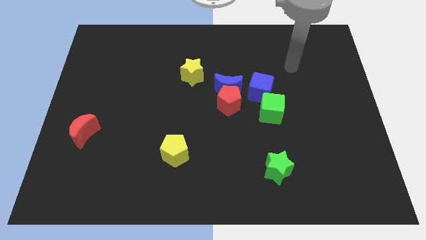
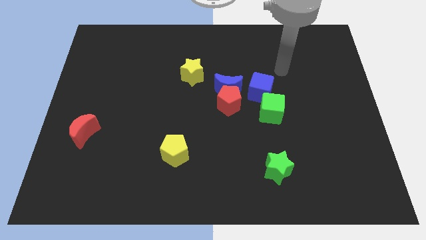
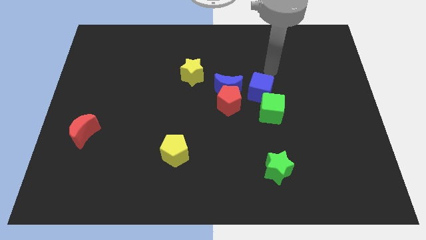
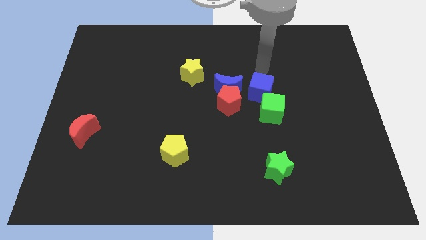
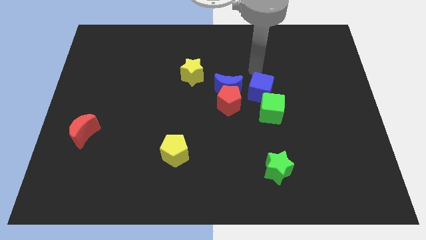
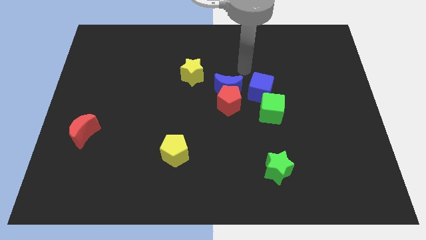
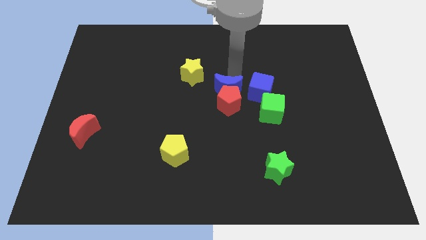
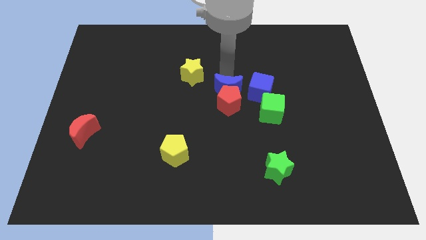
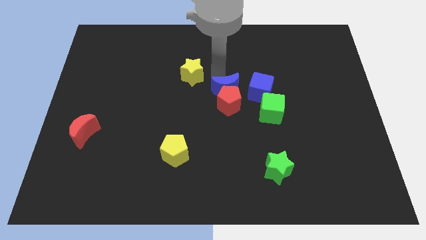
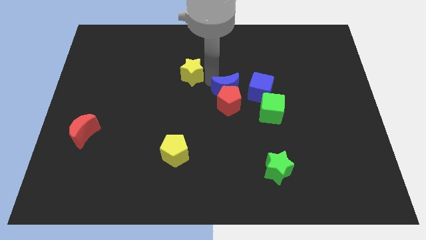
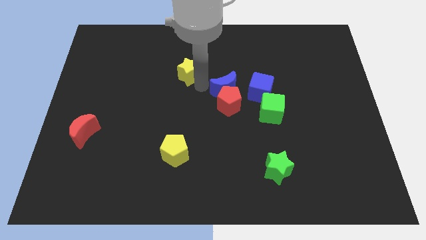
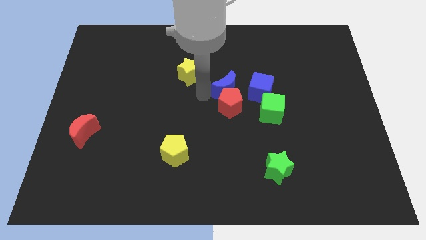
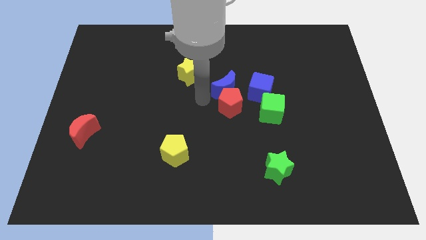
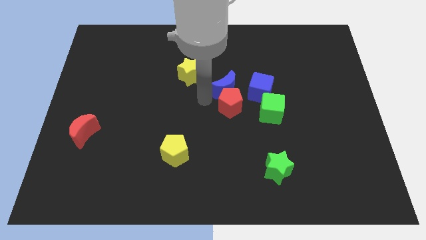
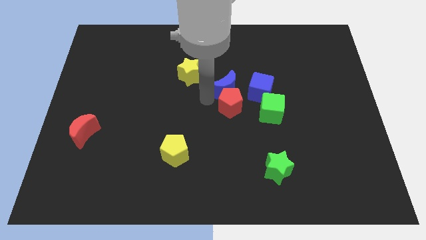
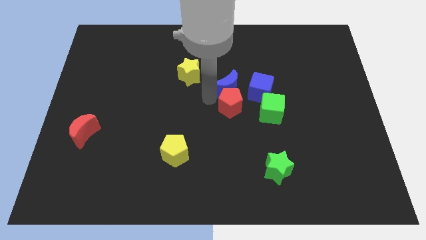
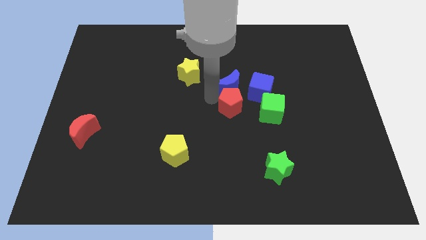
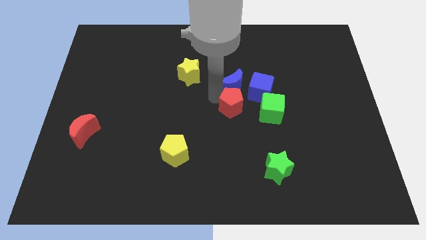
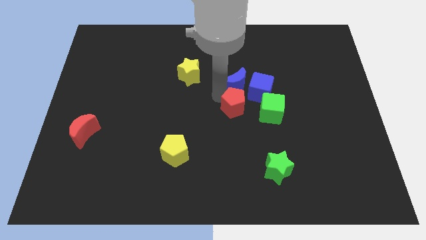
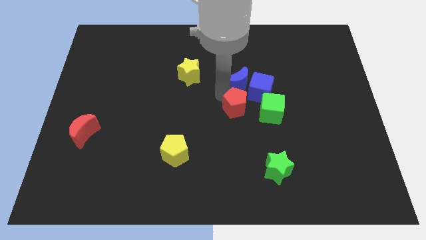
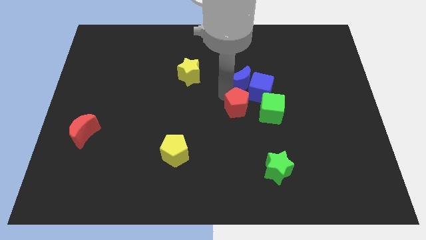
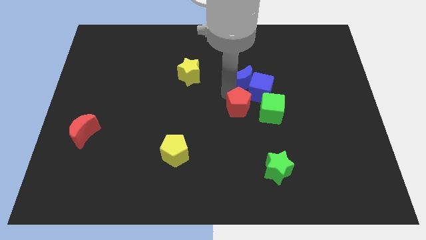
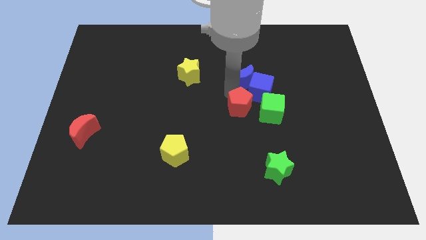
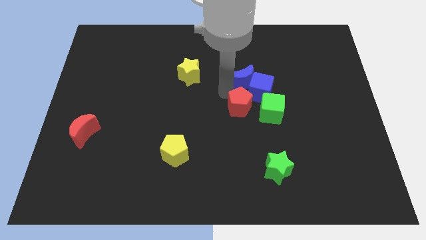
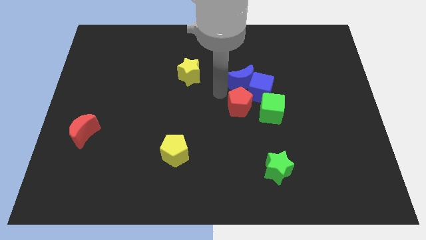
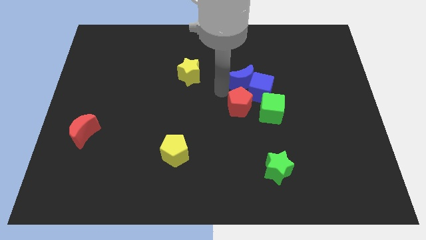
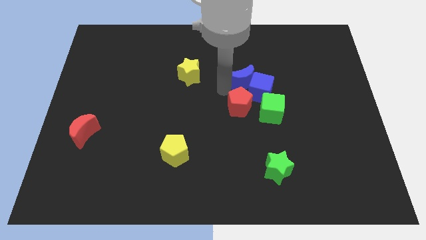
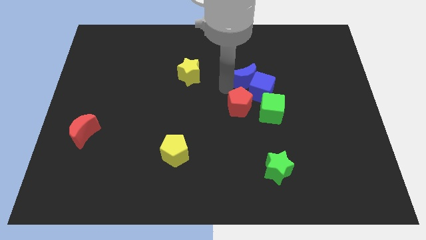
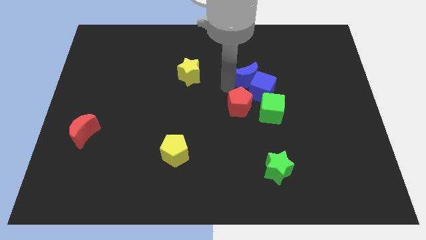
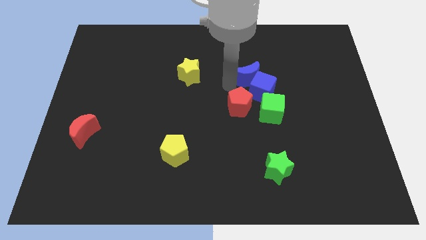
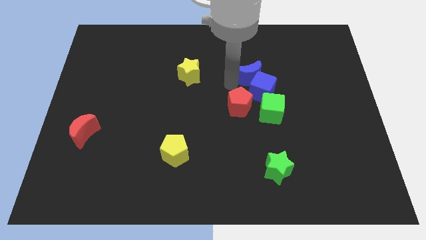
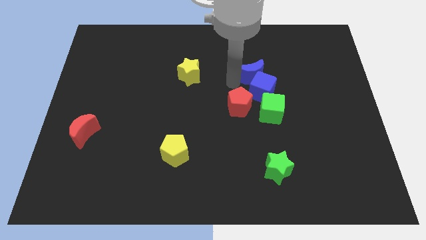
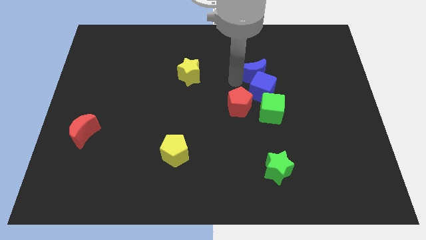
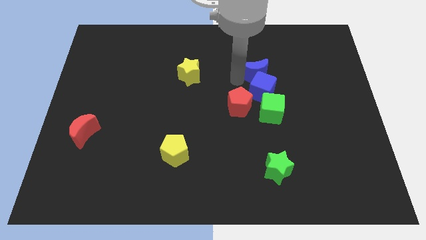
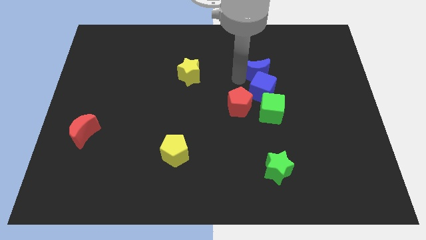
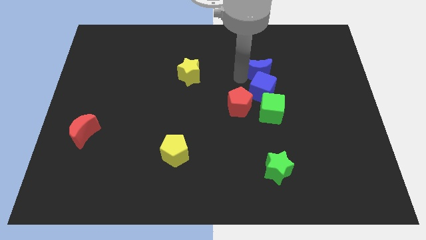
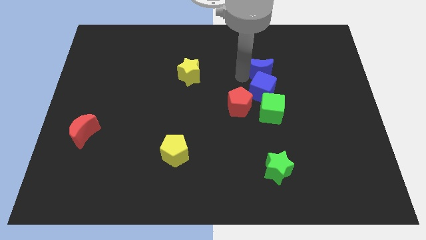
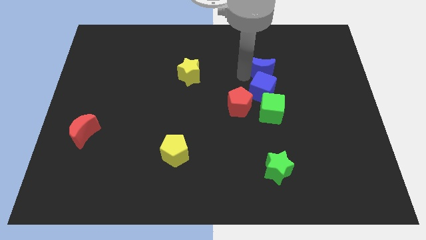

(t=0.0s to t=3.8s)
pull the blue moon apart from the clump

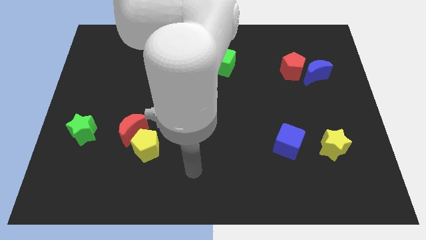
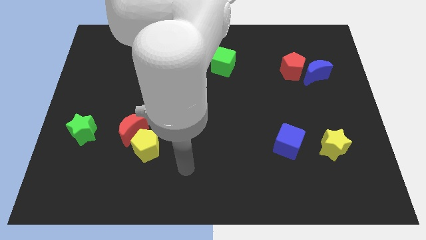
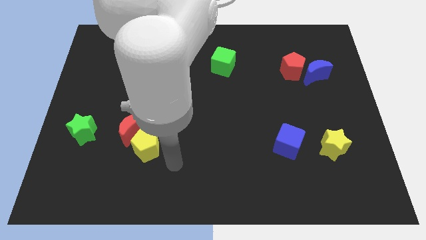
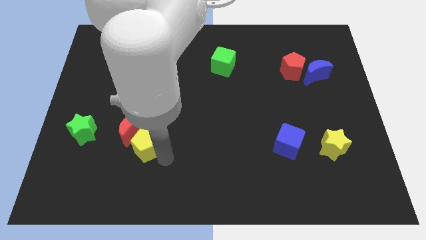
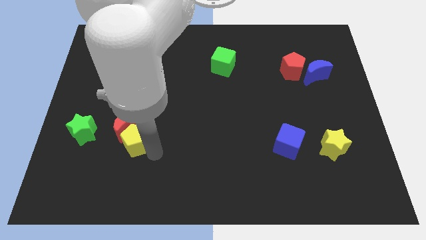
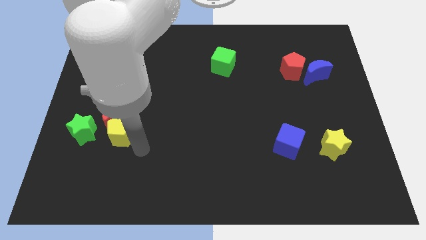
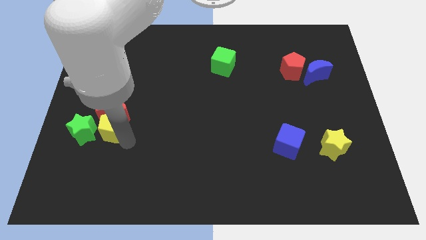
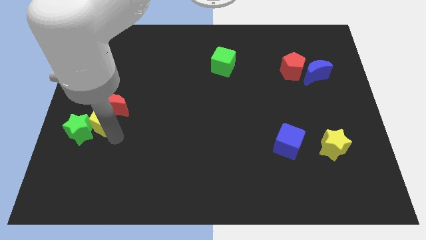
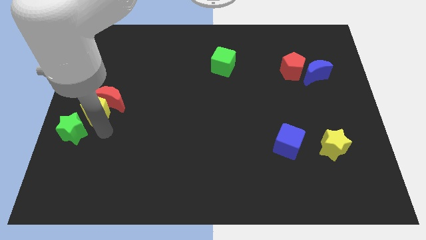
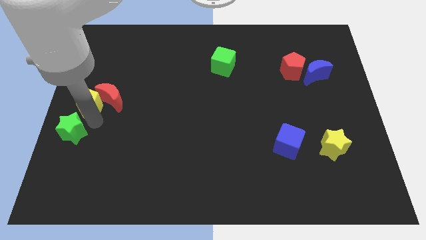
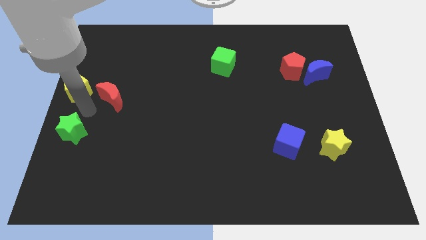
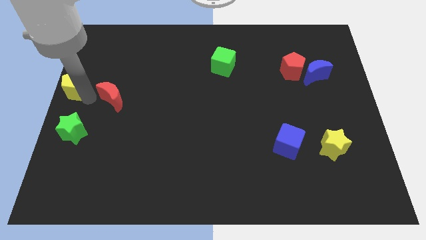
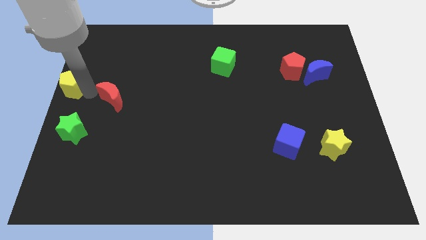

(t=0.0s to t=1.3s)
move the red moon away from the yellow pentagon

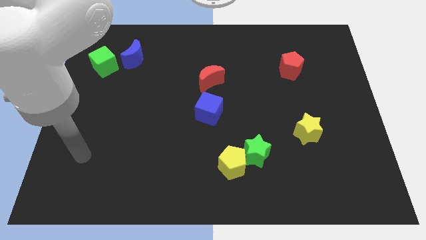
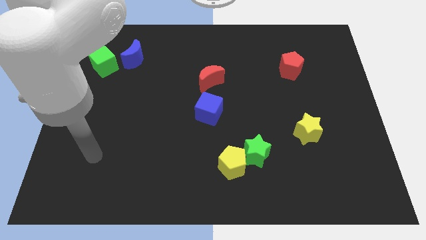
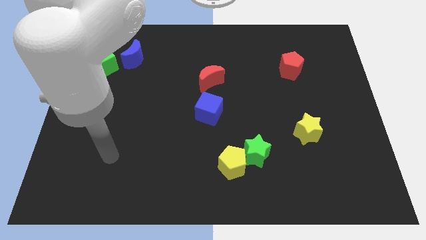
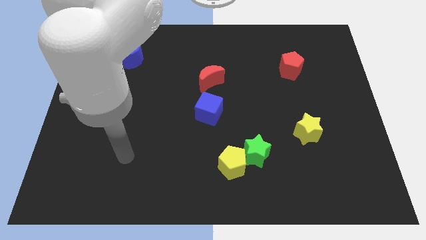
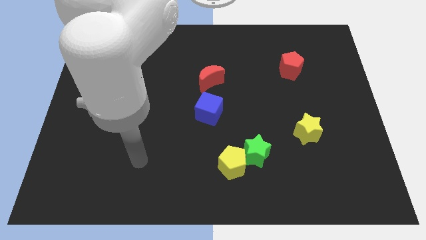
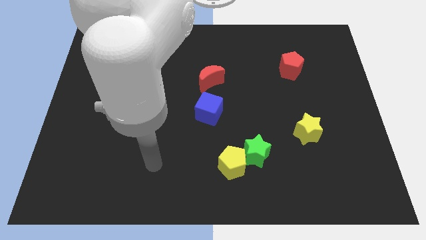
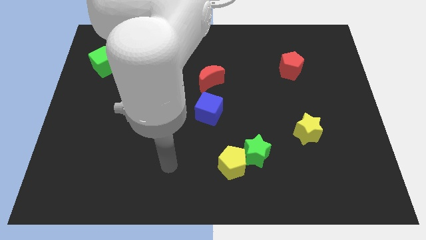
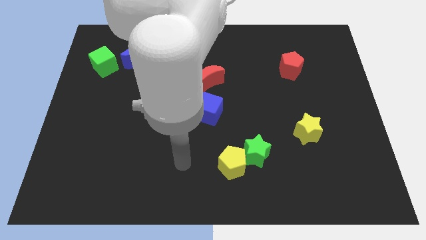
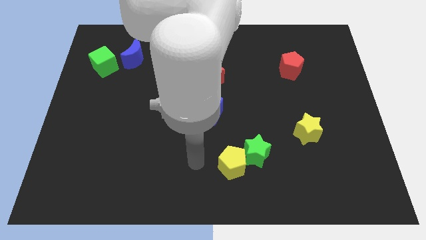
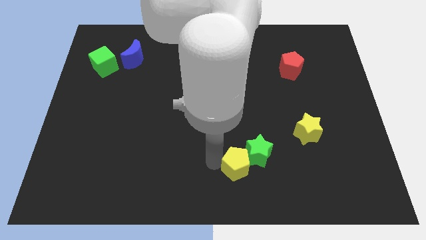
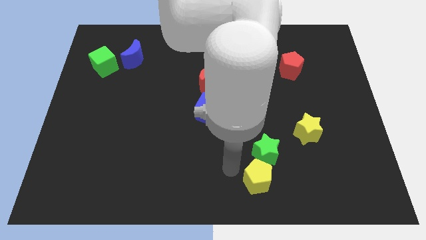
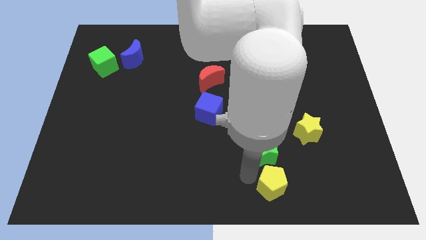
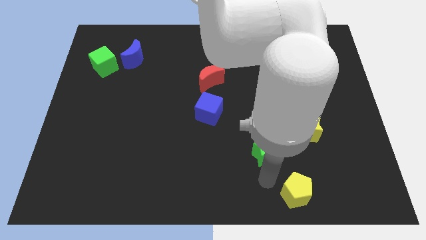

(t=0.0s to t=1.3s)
separate the green star from the yellow pentagon

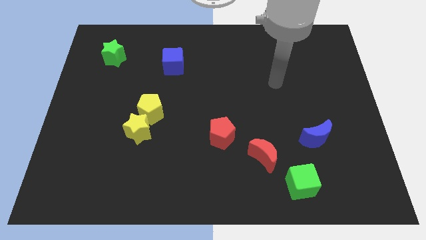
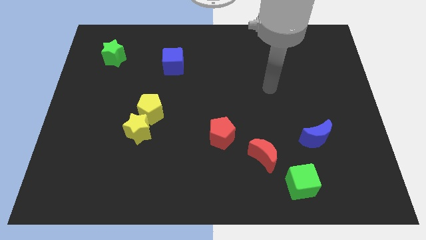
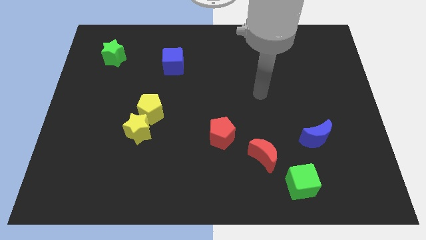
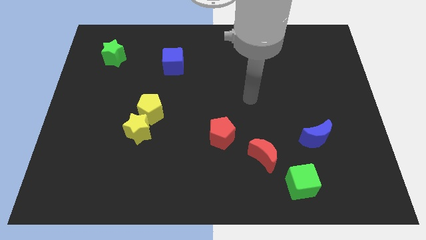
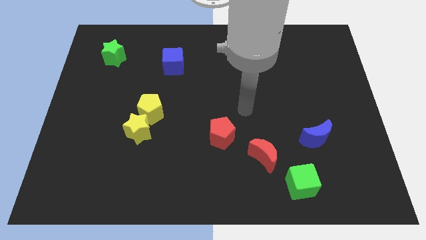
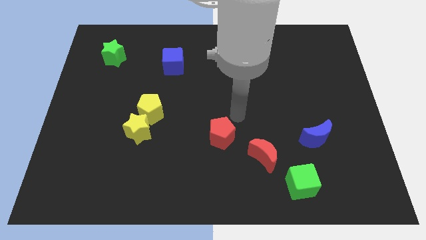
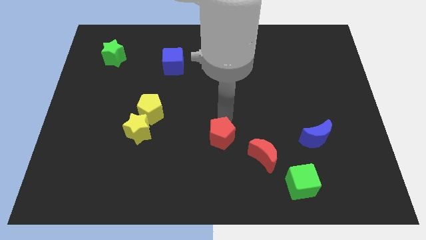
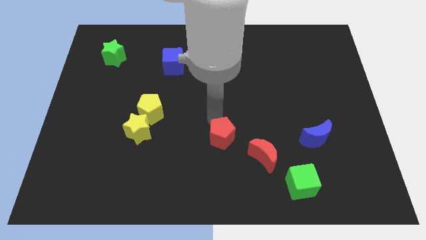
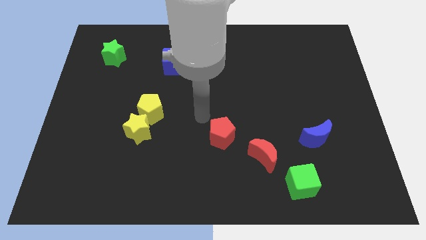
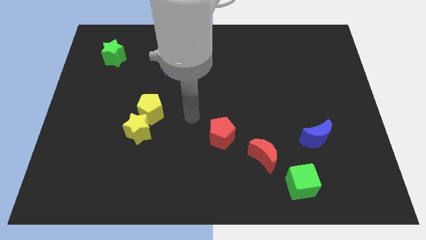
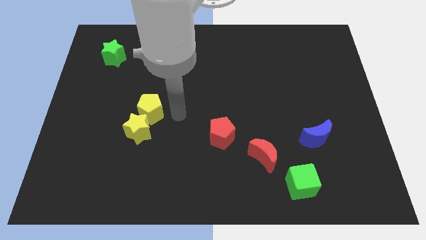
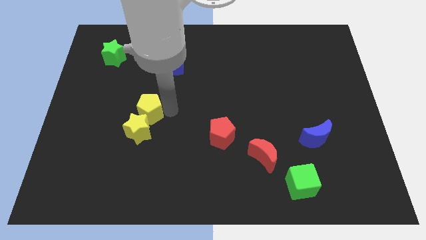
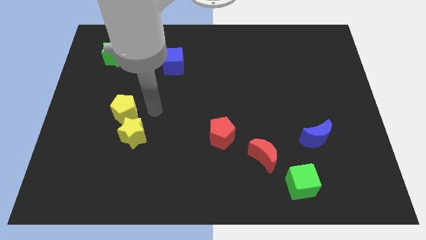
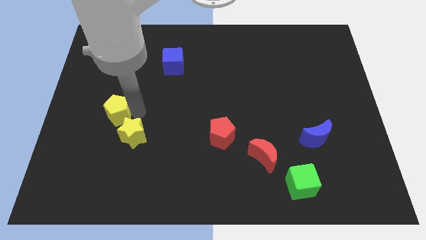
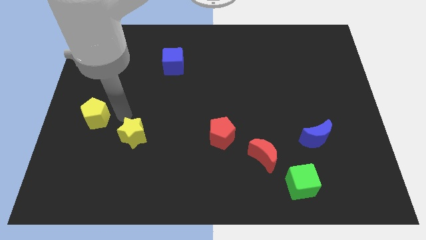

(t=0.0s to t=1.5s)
pull the yellow star apart from the yellow pentagon

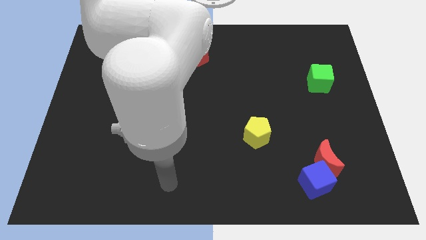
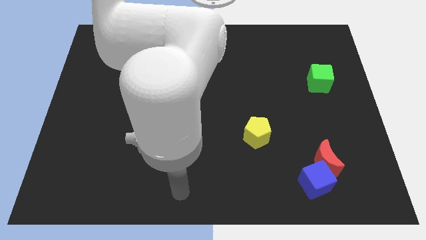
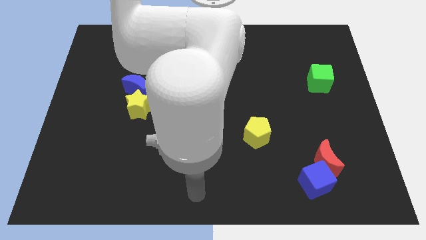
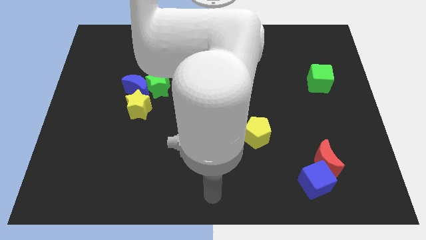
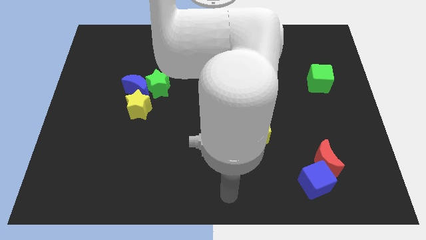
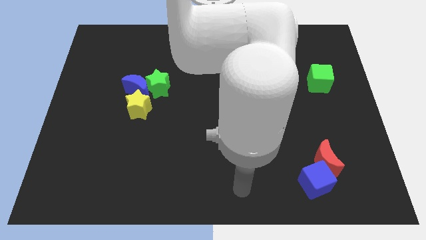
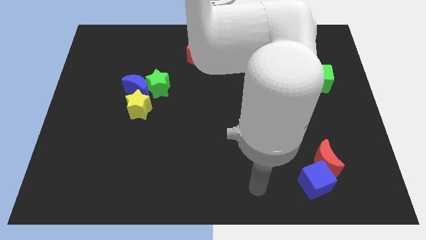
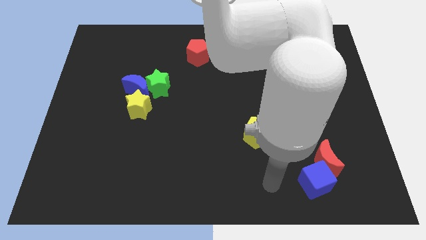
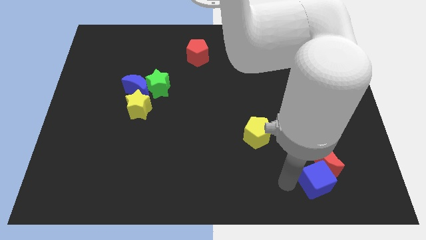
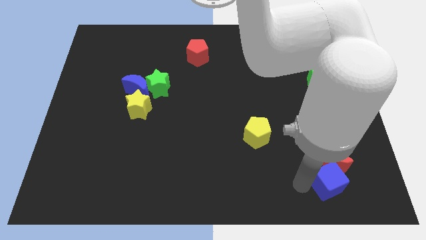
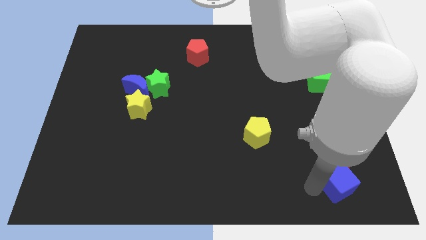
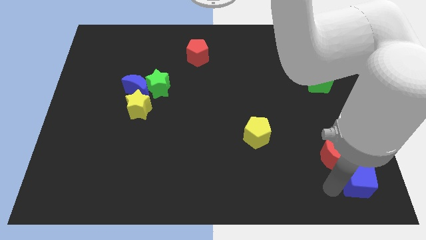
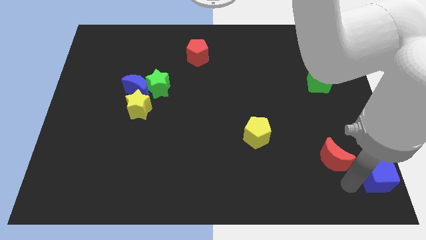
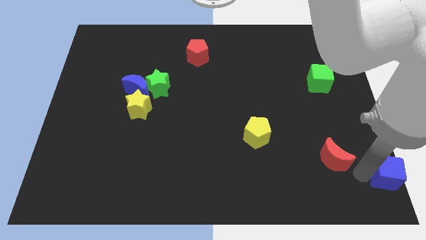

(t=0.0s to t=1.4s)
pull the red moon apart from the blue cube
